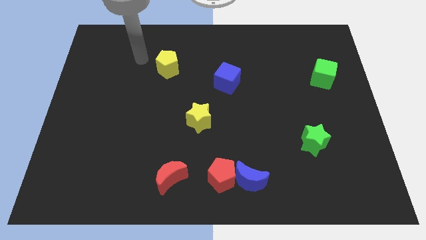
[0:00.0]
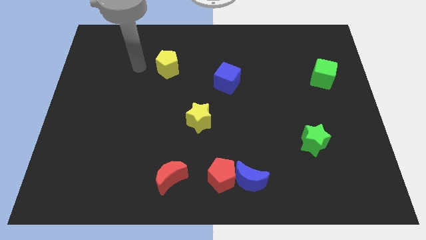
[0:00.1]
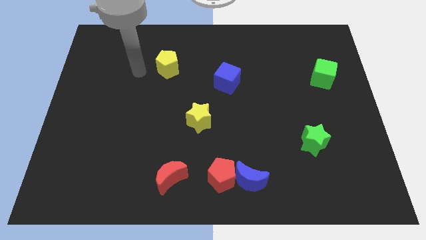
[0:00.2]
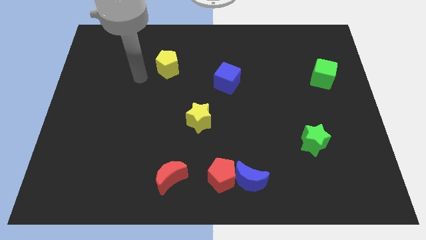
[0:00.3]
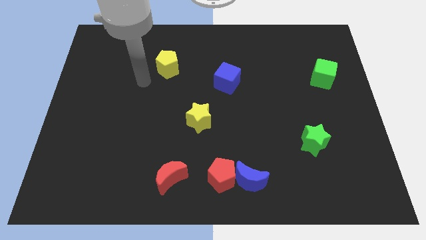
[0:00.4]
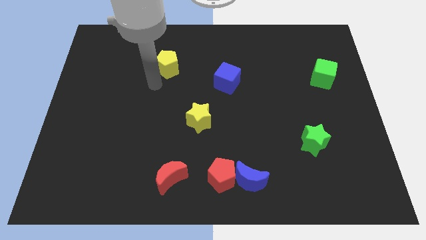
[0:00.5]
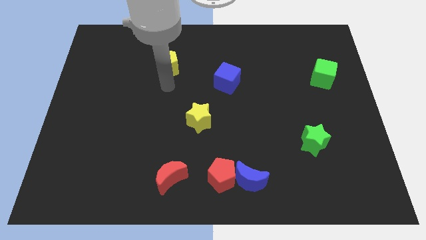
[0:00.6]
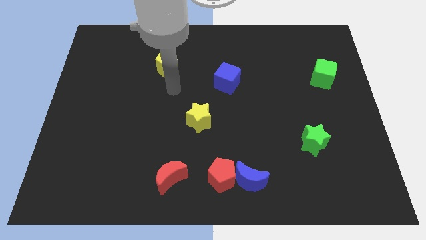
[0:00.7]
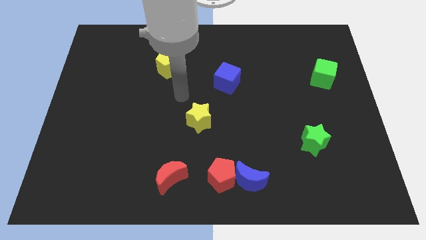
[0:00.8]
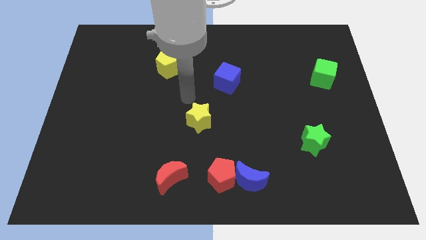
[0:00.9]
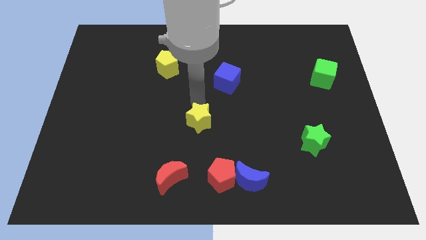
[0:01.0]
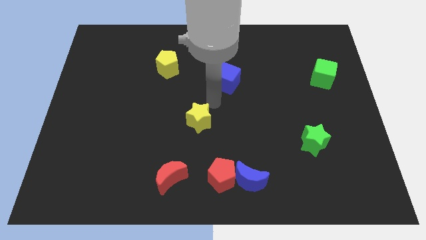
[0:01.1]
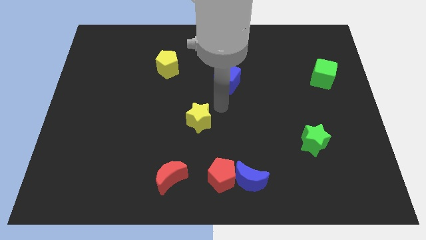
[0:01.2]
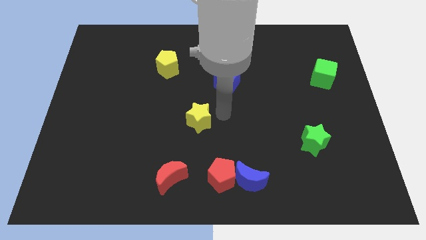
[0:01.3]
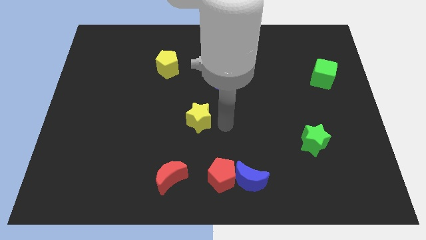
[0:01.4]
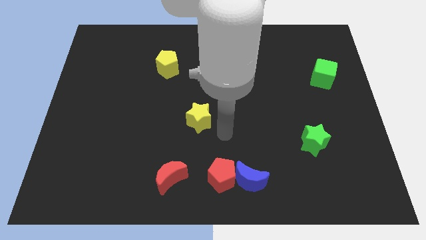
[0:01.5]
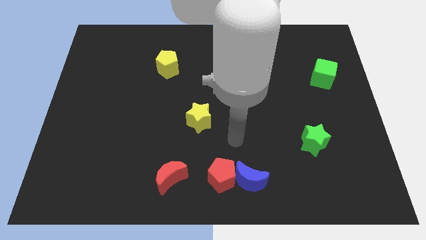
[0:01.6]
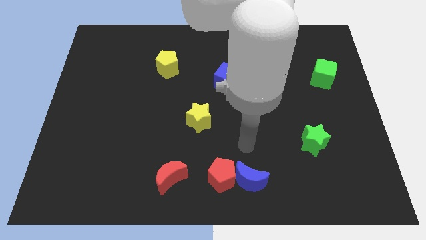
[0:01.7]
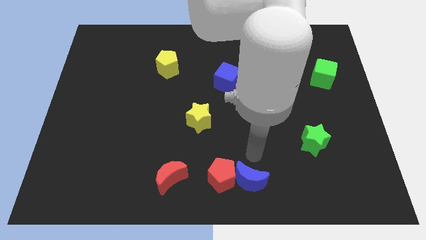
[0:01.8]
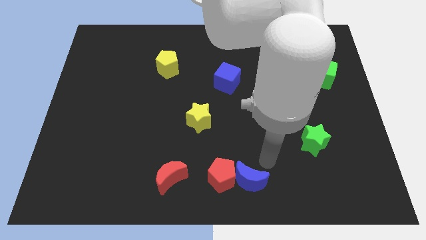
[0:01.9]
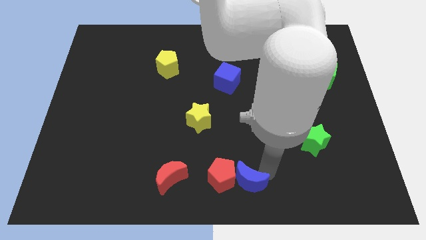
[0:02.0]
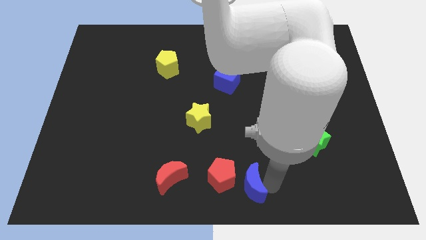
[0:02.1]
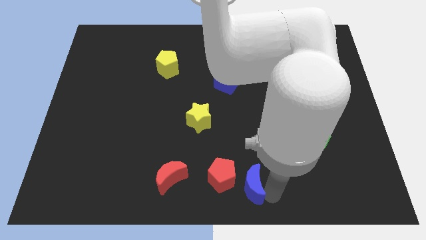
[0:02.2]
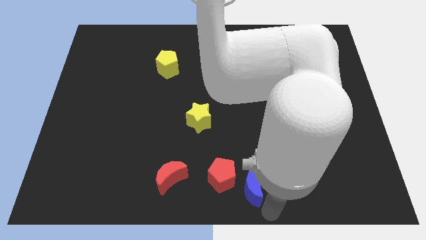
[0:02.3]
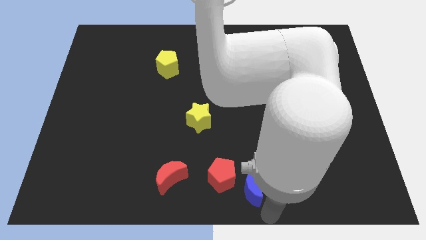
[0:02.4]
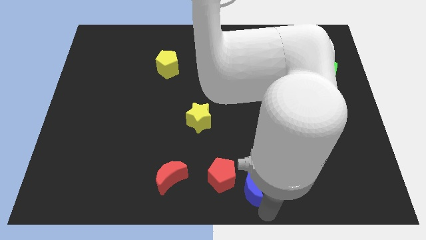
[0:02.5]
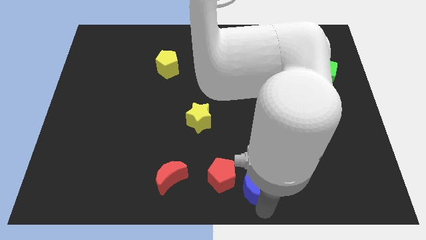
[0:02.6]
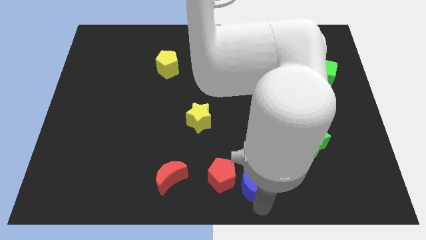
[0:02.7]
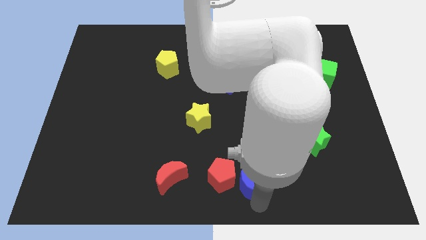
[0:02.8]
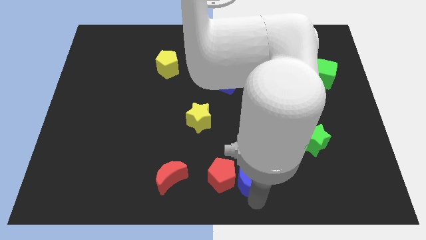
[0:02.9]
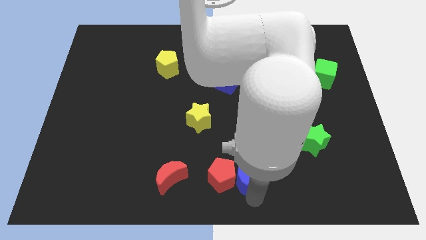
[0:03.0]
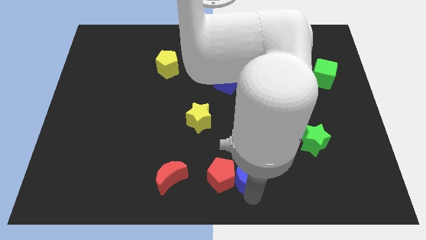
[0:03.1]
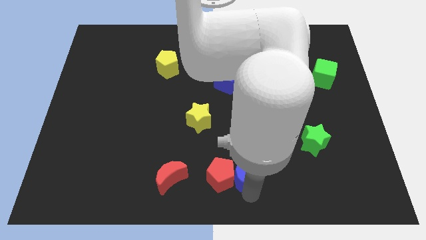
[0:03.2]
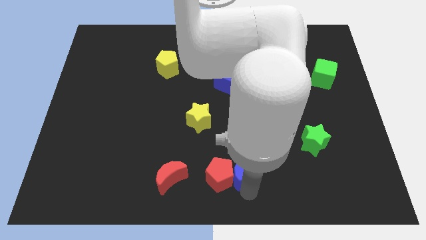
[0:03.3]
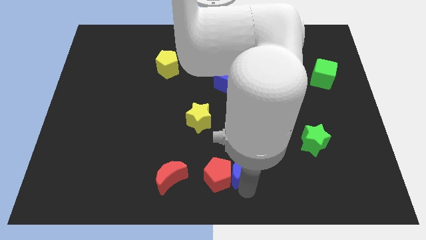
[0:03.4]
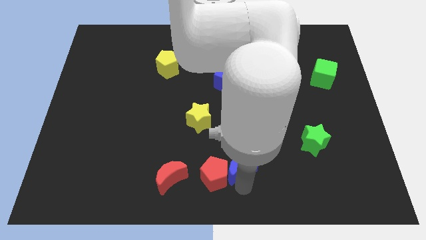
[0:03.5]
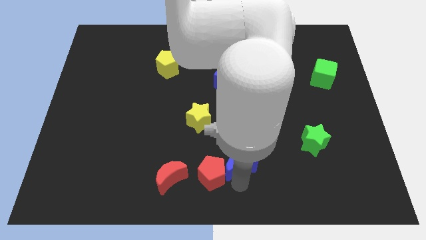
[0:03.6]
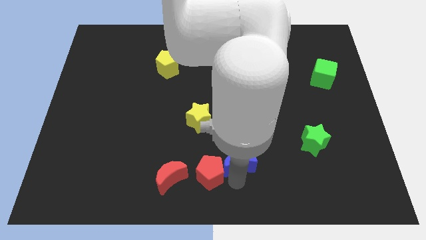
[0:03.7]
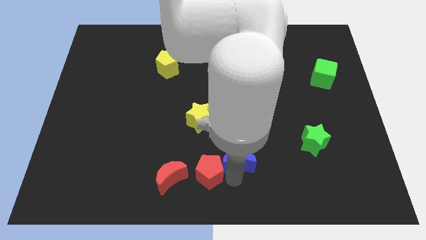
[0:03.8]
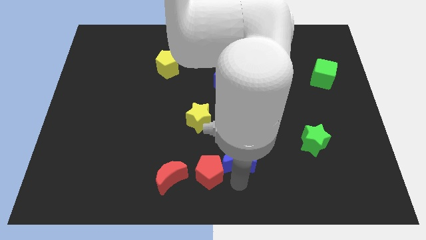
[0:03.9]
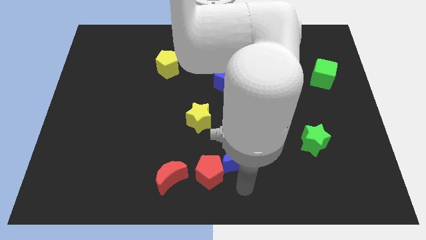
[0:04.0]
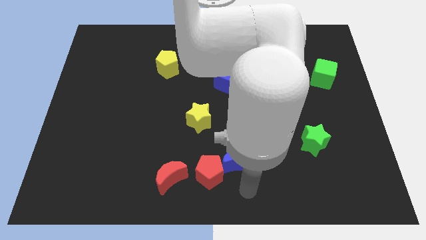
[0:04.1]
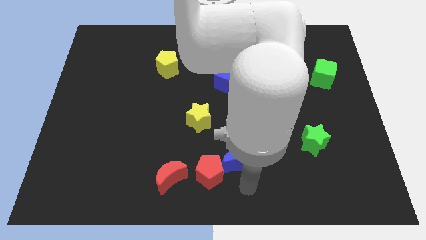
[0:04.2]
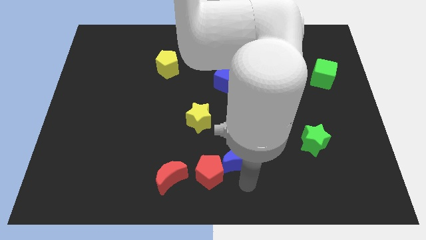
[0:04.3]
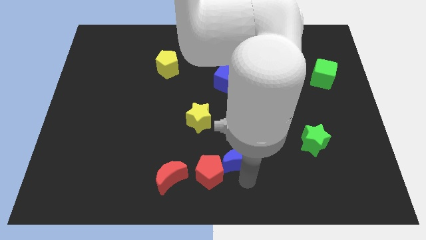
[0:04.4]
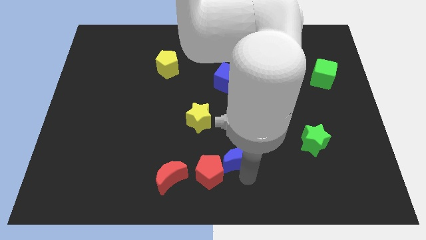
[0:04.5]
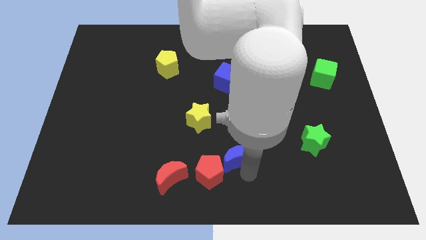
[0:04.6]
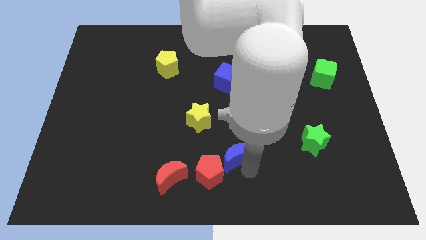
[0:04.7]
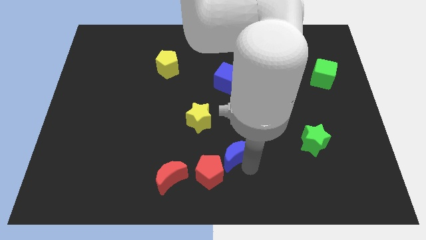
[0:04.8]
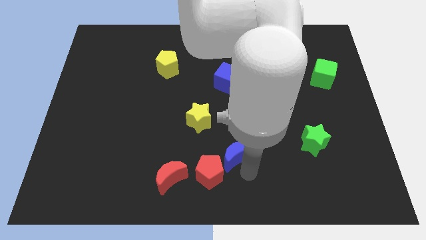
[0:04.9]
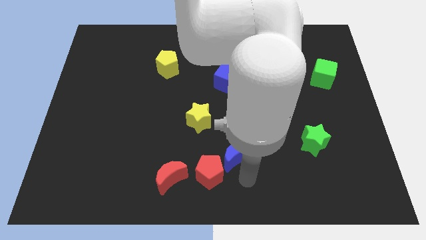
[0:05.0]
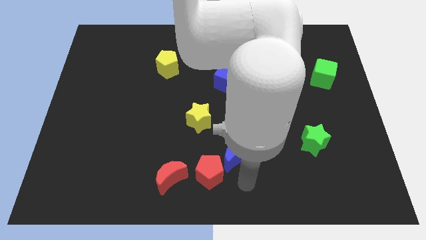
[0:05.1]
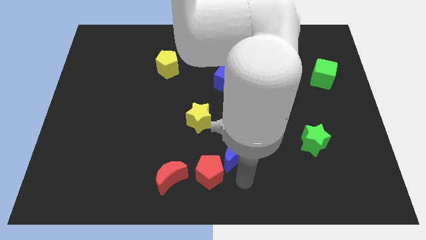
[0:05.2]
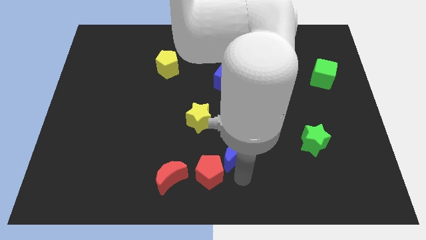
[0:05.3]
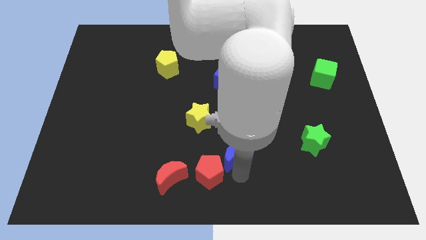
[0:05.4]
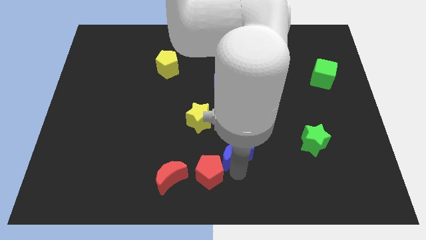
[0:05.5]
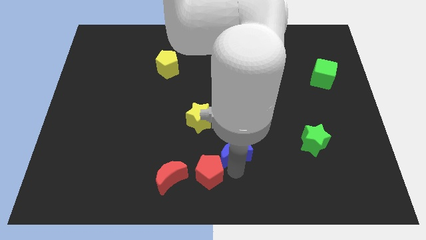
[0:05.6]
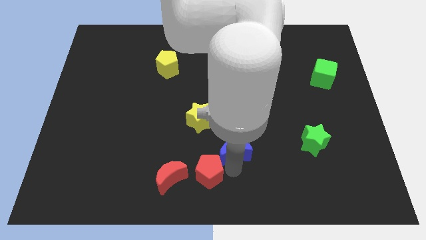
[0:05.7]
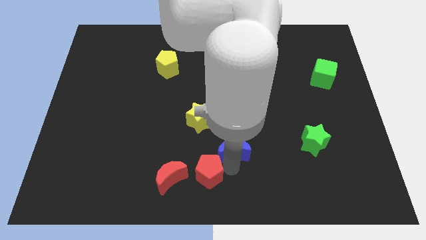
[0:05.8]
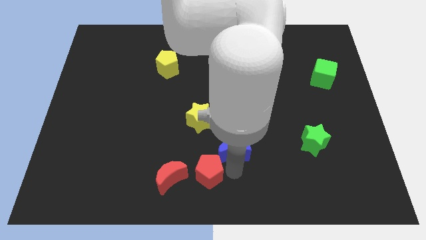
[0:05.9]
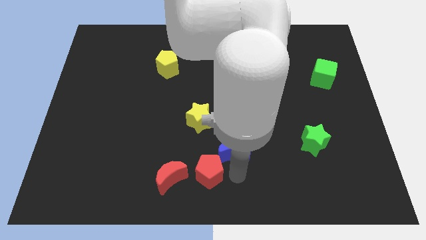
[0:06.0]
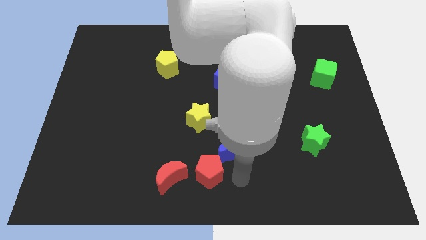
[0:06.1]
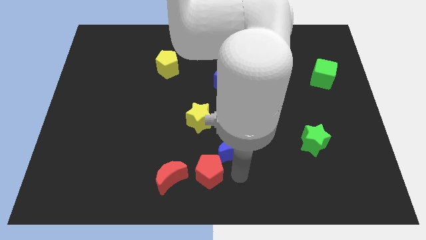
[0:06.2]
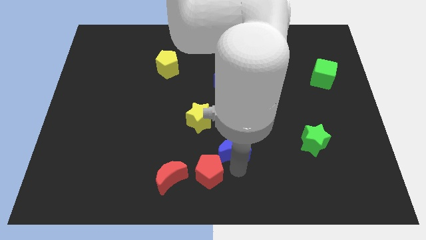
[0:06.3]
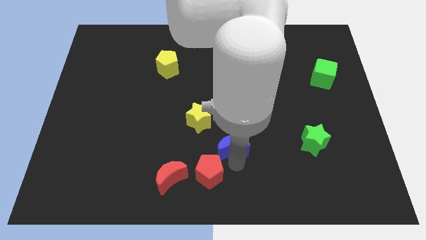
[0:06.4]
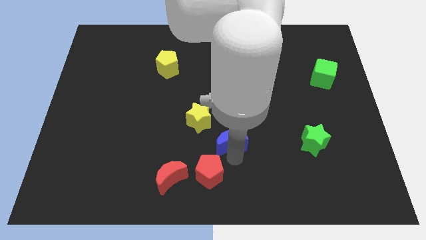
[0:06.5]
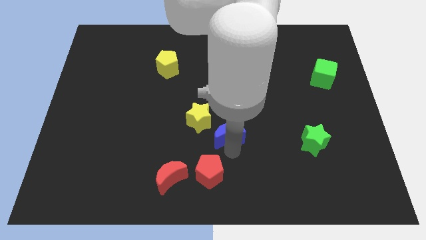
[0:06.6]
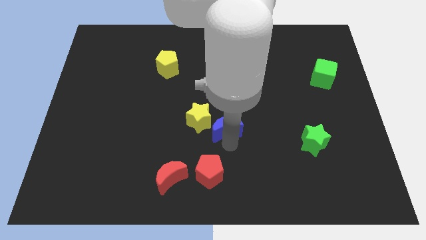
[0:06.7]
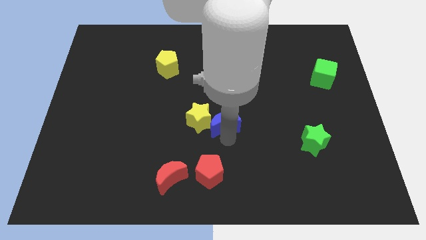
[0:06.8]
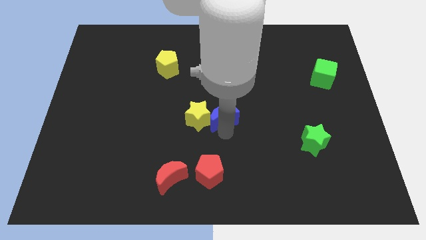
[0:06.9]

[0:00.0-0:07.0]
move the blue moon diagonally up and to the right of the yellow star
